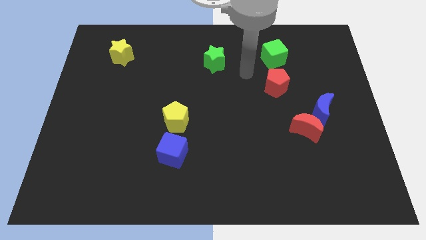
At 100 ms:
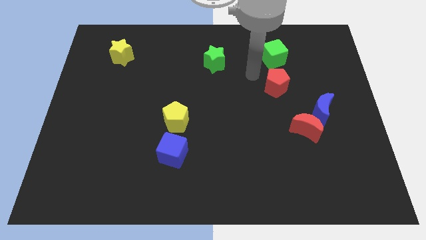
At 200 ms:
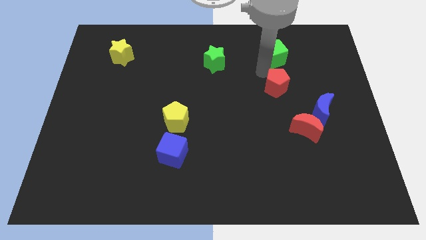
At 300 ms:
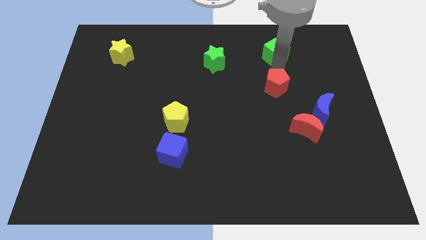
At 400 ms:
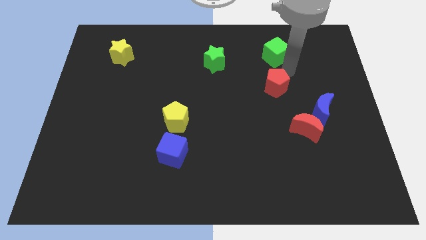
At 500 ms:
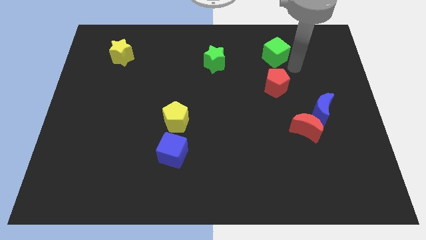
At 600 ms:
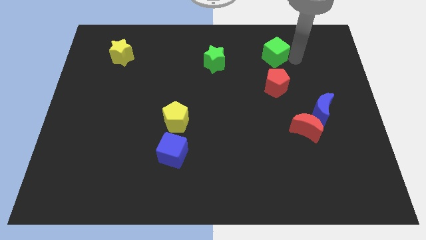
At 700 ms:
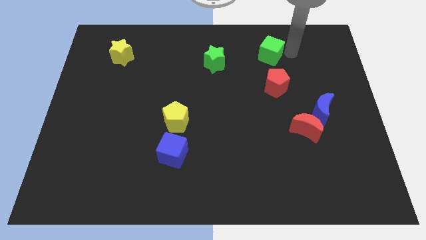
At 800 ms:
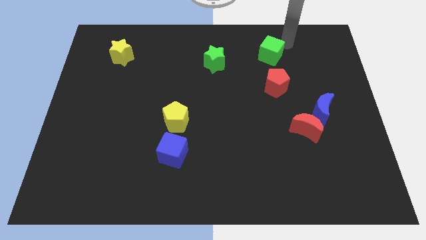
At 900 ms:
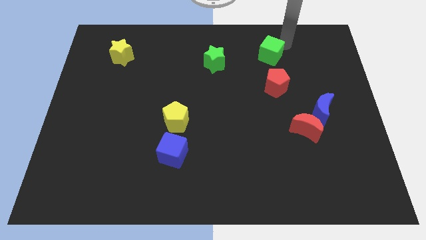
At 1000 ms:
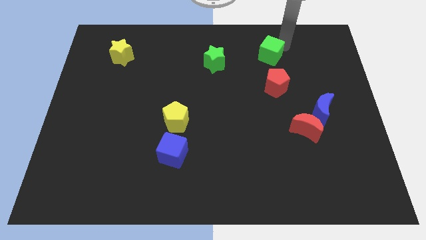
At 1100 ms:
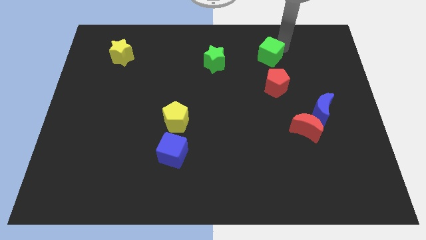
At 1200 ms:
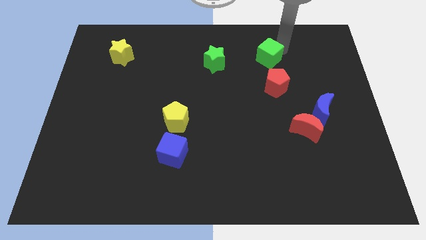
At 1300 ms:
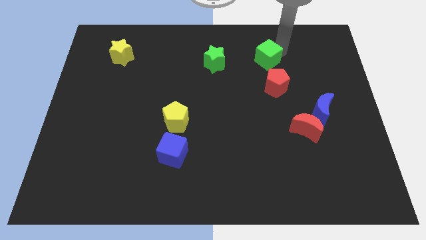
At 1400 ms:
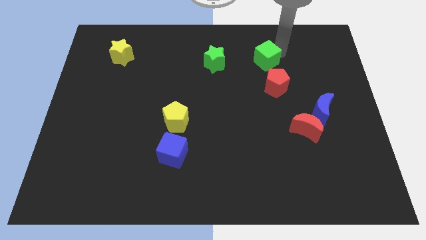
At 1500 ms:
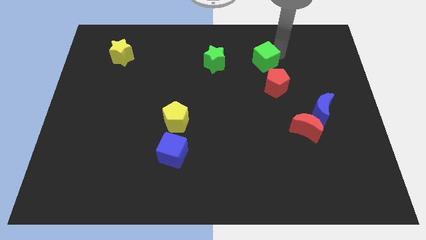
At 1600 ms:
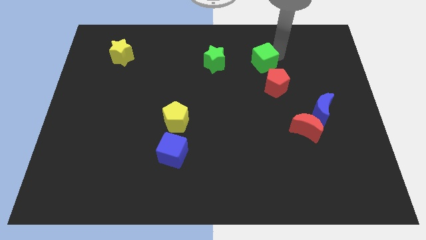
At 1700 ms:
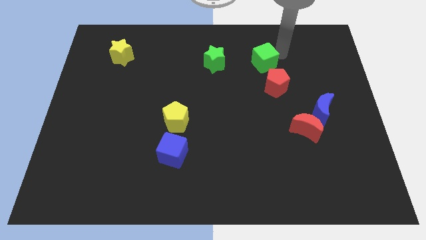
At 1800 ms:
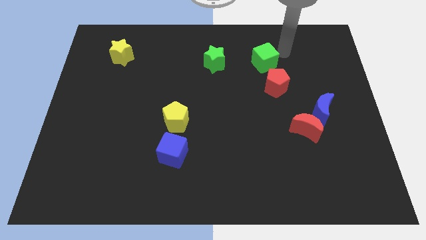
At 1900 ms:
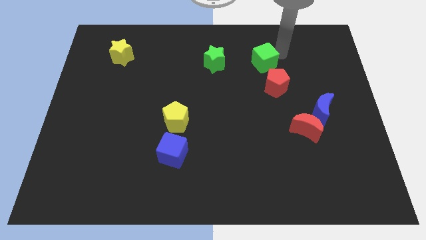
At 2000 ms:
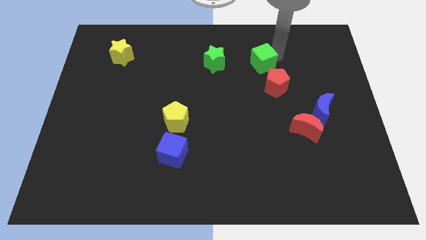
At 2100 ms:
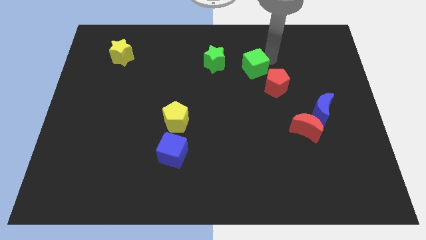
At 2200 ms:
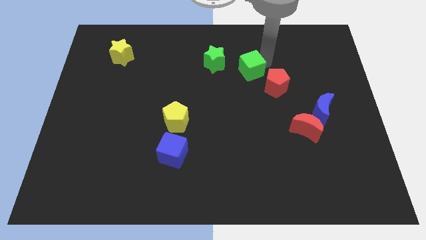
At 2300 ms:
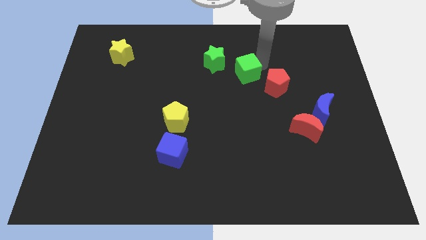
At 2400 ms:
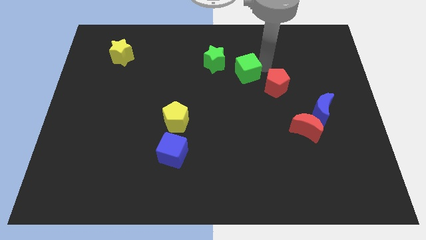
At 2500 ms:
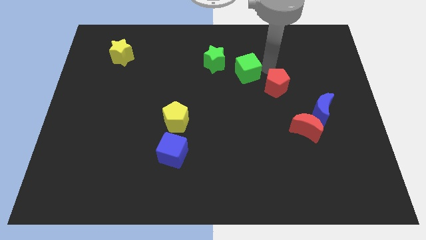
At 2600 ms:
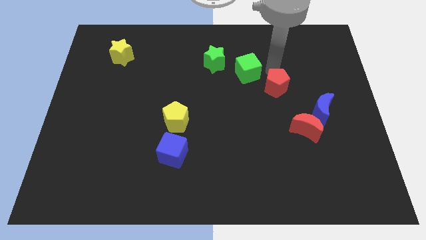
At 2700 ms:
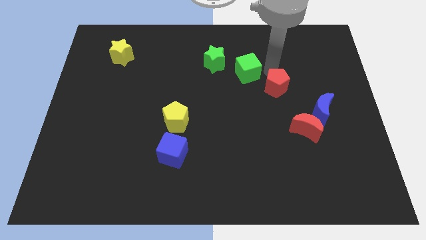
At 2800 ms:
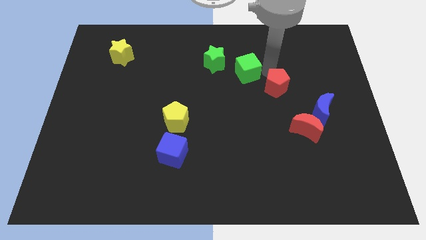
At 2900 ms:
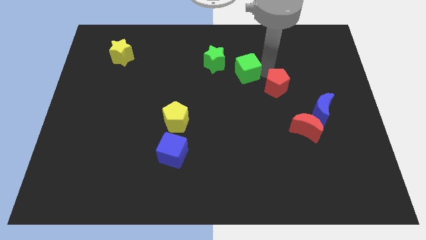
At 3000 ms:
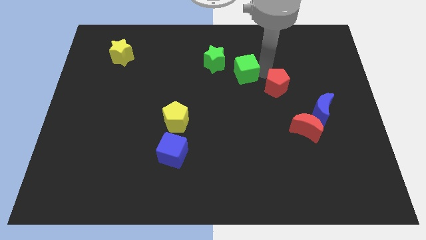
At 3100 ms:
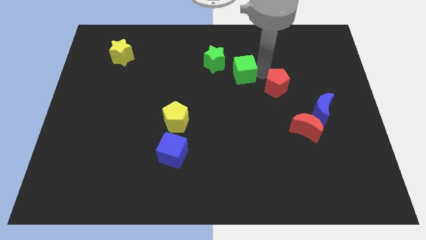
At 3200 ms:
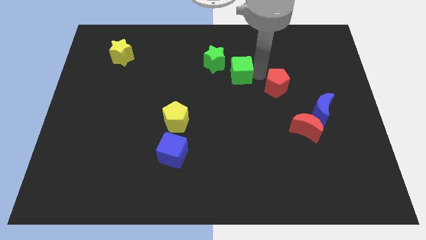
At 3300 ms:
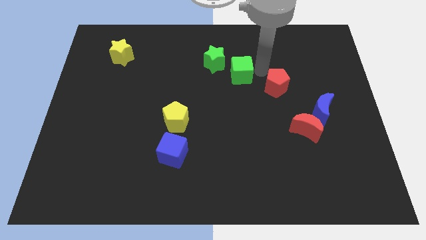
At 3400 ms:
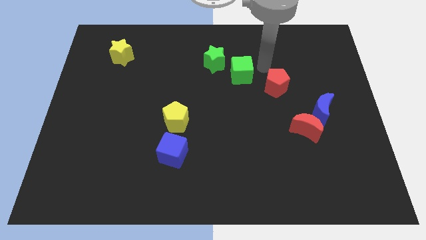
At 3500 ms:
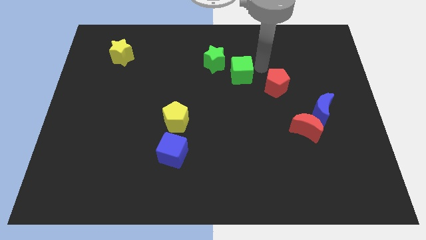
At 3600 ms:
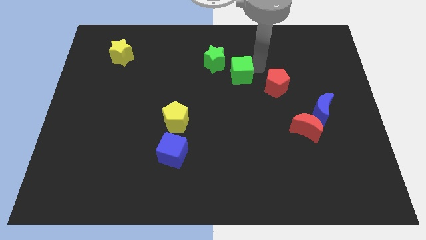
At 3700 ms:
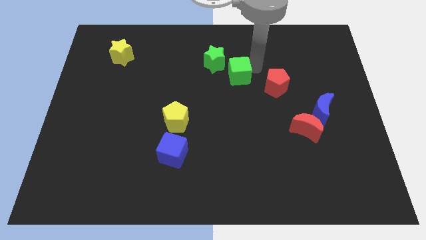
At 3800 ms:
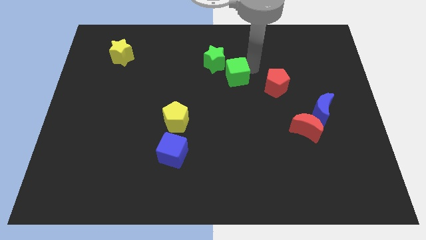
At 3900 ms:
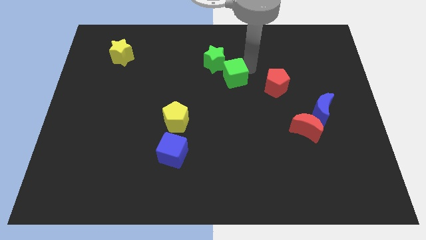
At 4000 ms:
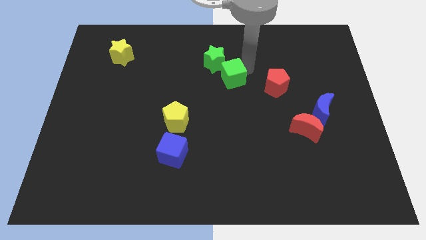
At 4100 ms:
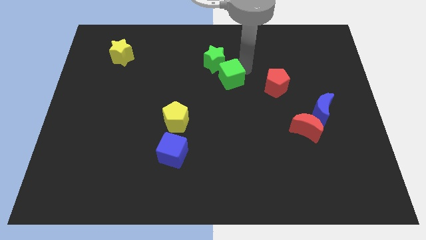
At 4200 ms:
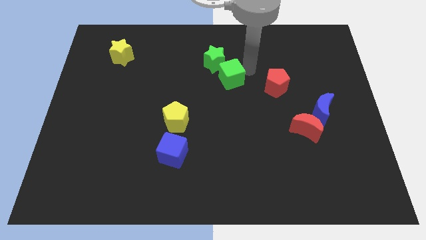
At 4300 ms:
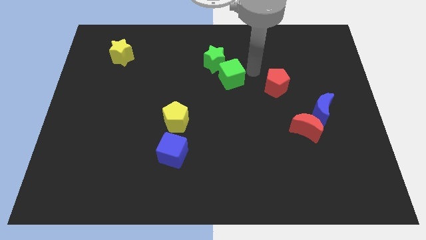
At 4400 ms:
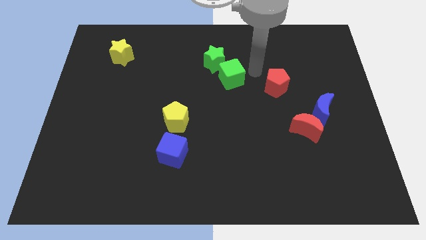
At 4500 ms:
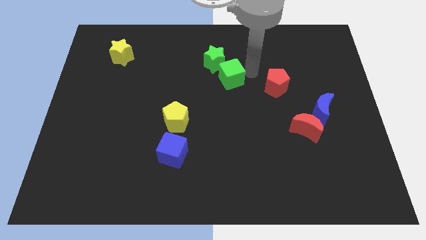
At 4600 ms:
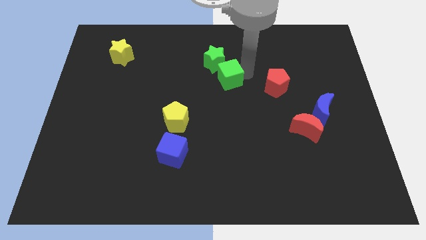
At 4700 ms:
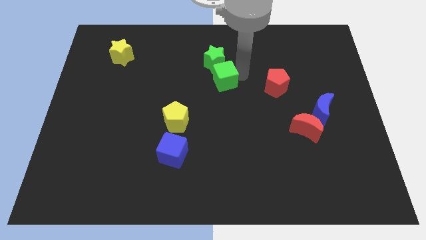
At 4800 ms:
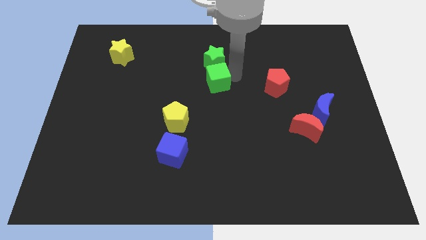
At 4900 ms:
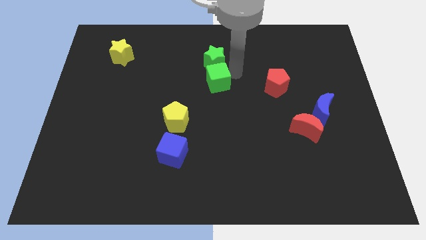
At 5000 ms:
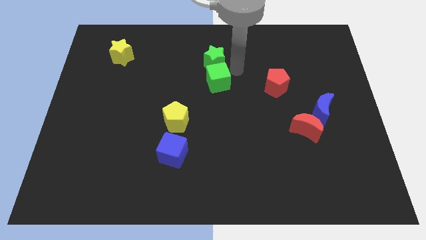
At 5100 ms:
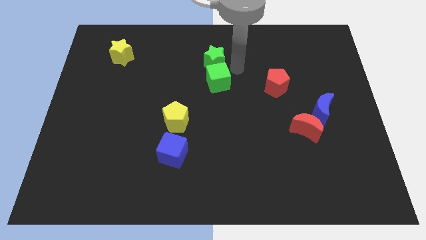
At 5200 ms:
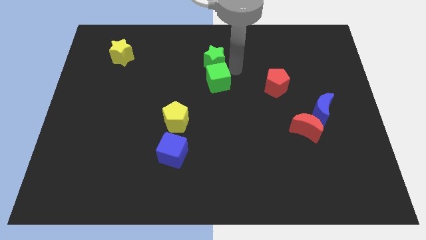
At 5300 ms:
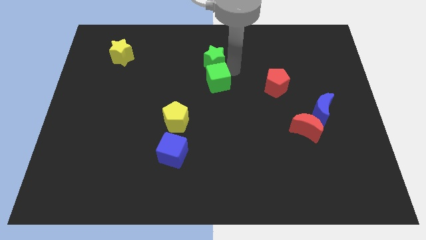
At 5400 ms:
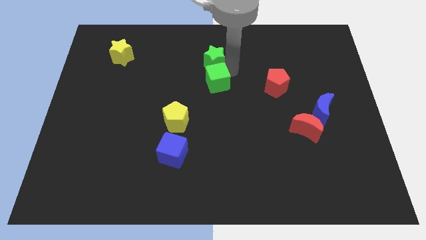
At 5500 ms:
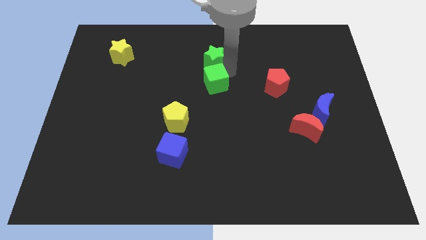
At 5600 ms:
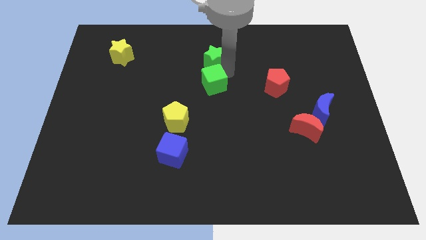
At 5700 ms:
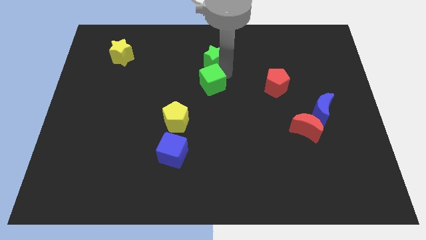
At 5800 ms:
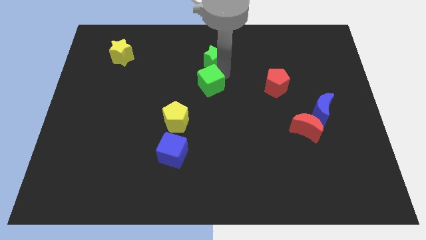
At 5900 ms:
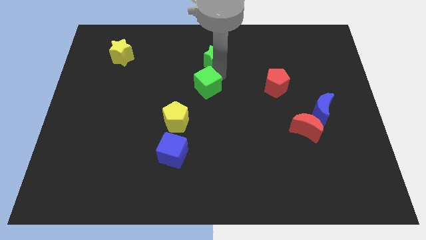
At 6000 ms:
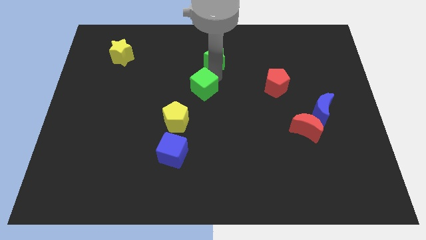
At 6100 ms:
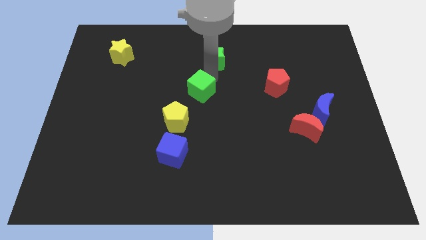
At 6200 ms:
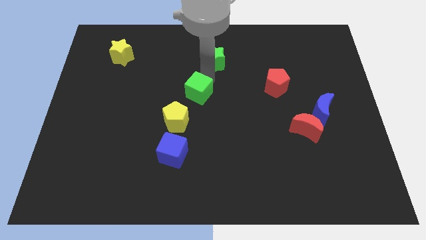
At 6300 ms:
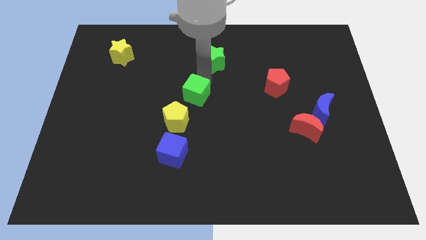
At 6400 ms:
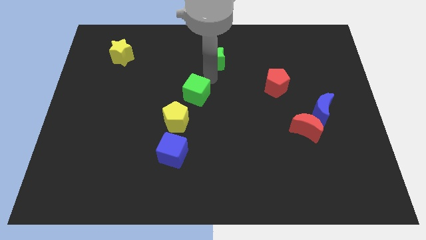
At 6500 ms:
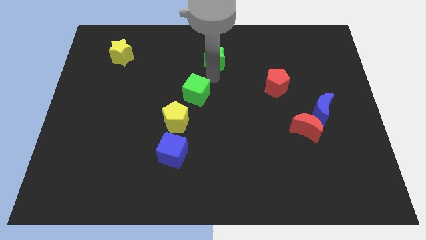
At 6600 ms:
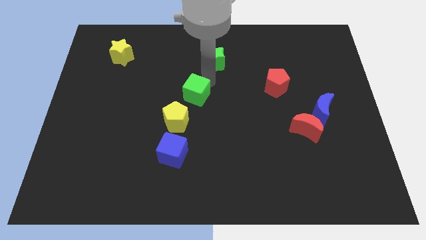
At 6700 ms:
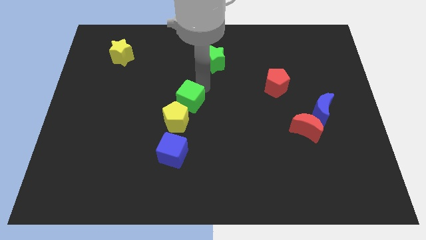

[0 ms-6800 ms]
put the green cube above the blue cube

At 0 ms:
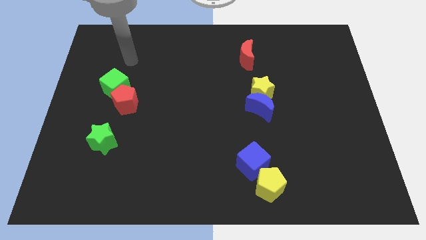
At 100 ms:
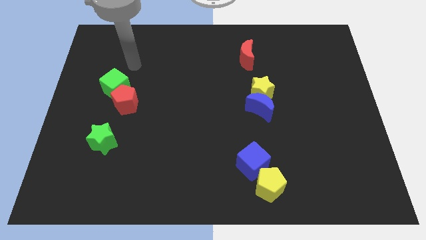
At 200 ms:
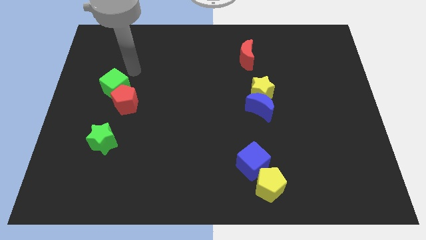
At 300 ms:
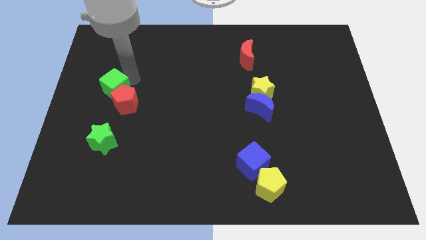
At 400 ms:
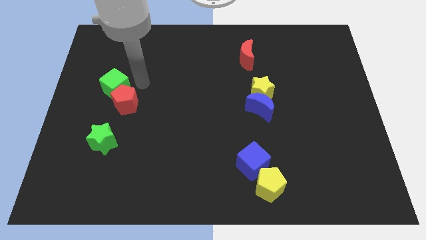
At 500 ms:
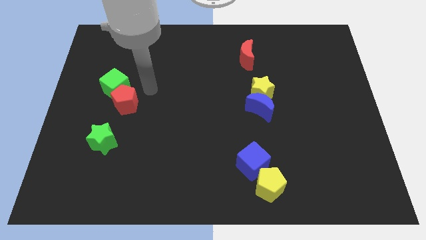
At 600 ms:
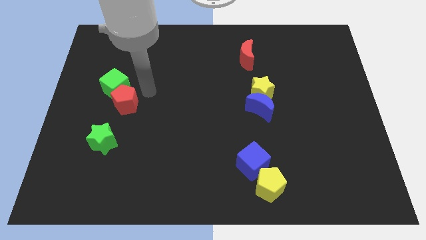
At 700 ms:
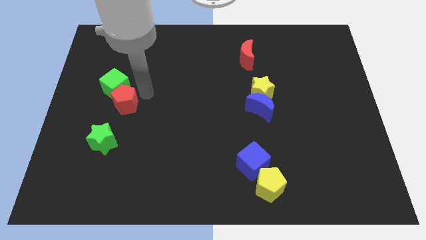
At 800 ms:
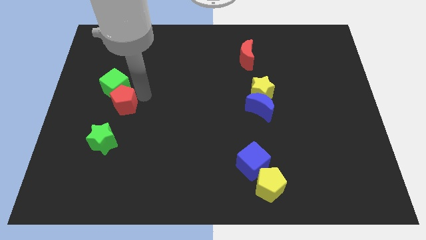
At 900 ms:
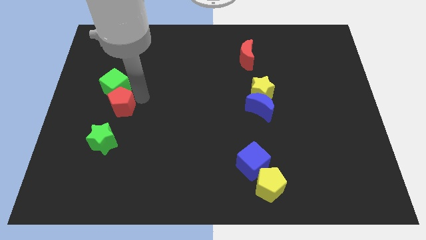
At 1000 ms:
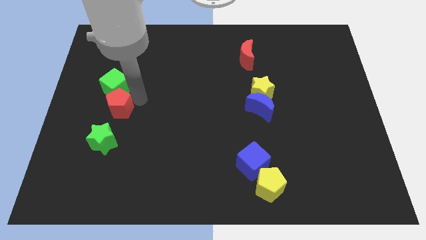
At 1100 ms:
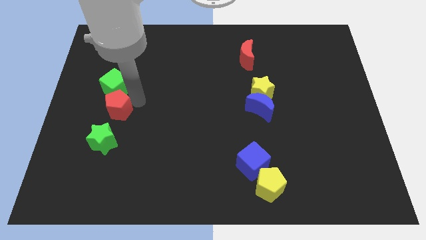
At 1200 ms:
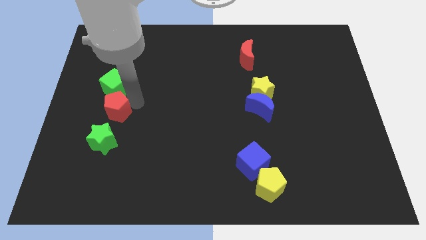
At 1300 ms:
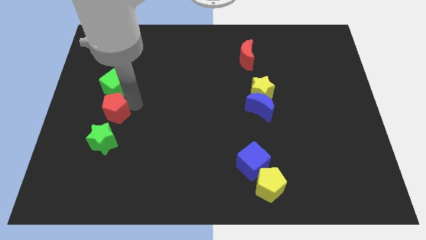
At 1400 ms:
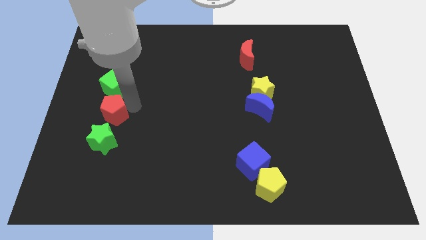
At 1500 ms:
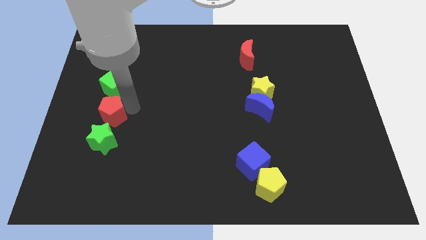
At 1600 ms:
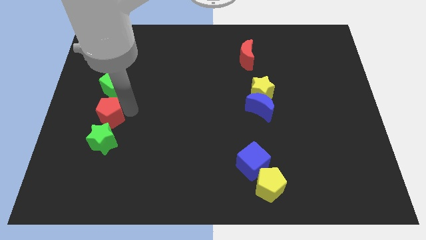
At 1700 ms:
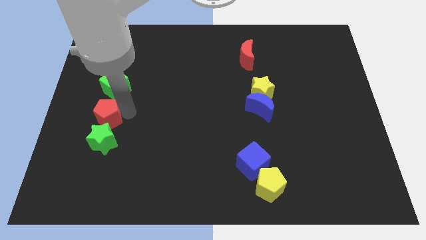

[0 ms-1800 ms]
slide the red pentagon to the top left of the green star
